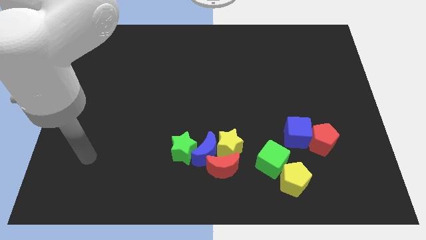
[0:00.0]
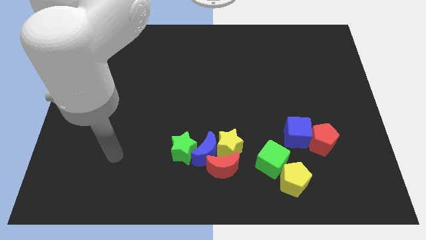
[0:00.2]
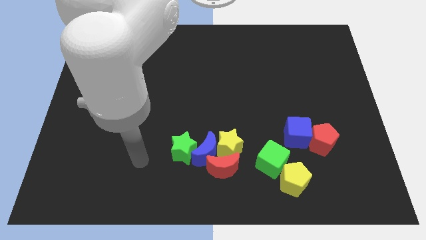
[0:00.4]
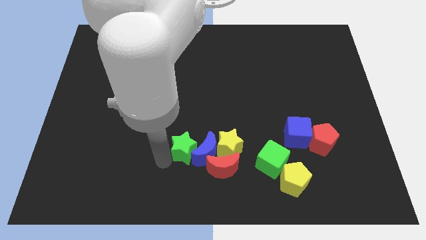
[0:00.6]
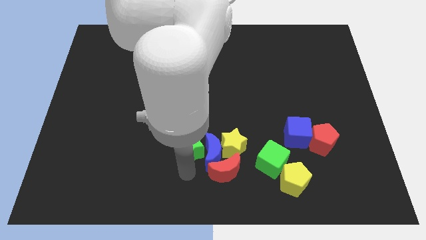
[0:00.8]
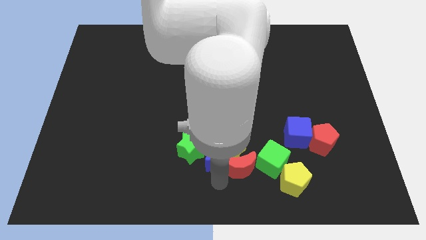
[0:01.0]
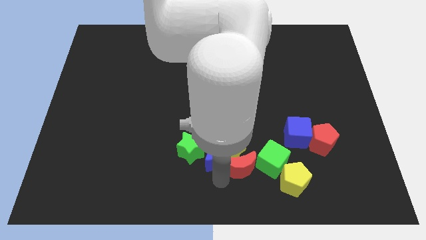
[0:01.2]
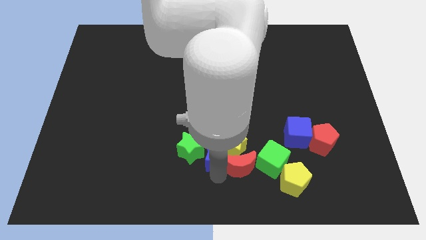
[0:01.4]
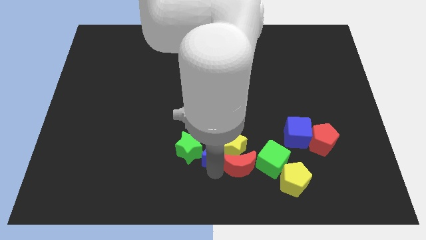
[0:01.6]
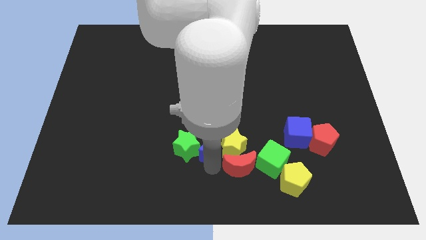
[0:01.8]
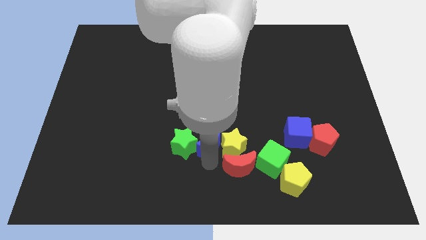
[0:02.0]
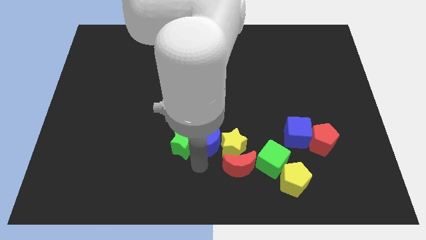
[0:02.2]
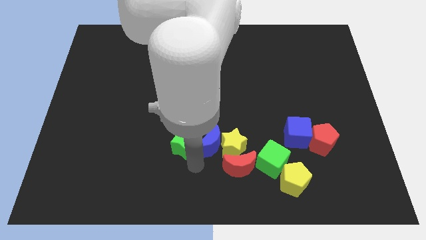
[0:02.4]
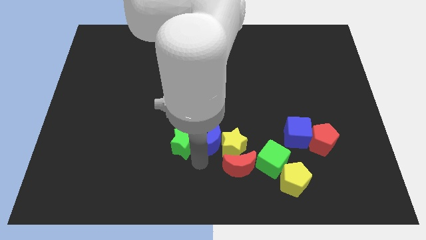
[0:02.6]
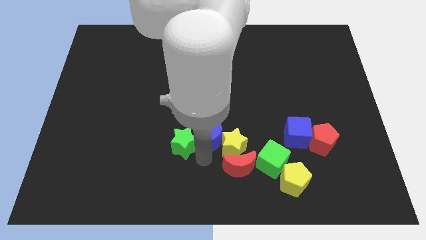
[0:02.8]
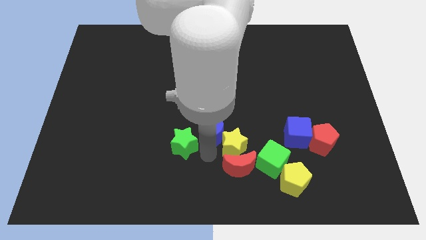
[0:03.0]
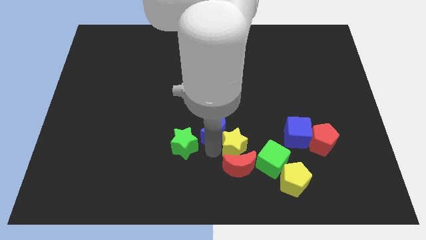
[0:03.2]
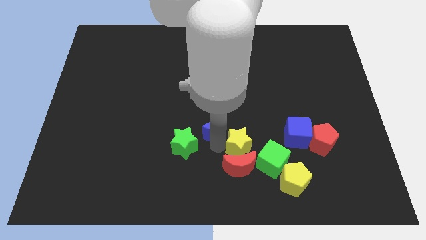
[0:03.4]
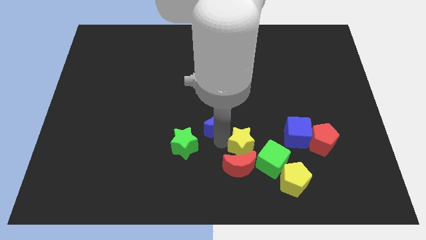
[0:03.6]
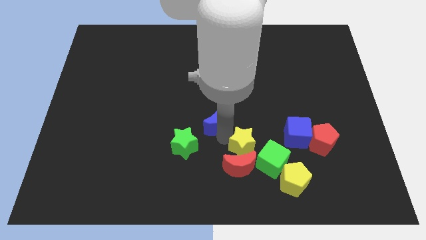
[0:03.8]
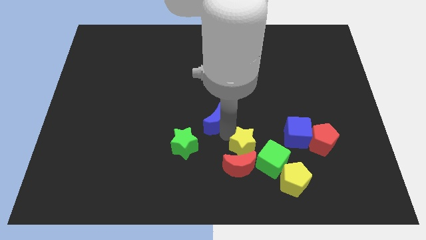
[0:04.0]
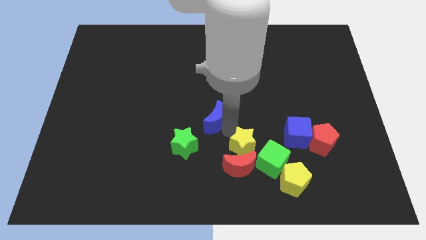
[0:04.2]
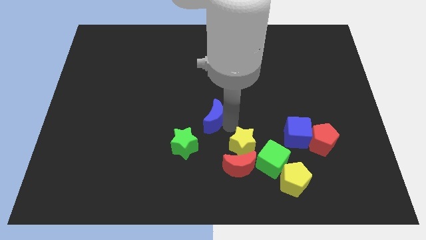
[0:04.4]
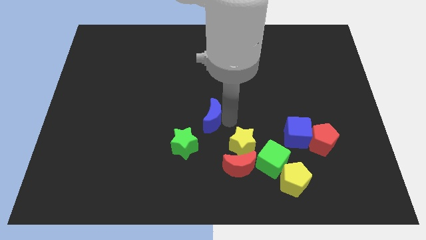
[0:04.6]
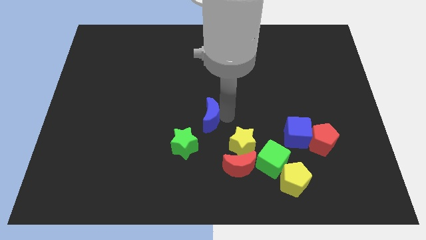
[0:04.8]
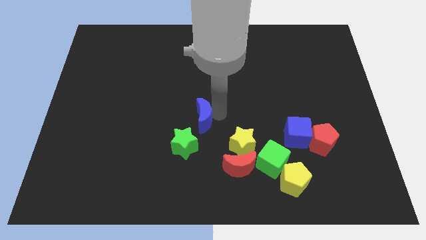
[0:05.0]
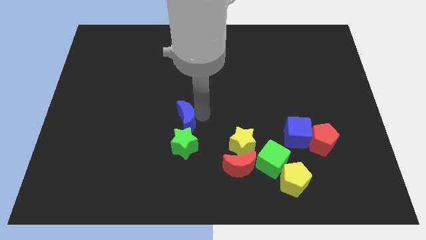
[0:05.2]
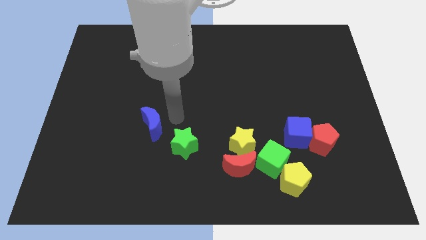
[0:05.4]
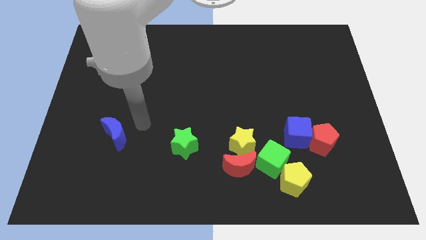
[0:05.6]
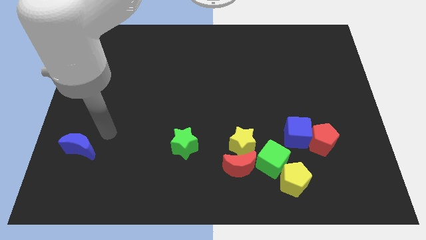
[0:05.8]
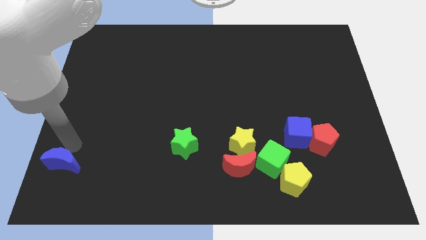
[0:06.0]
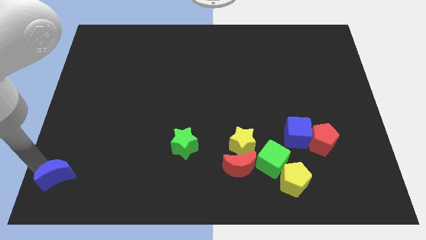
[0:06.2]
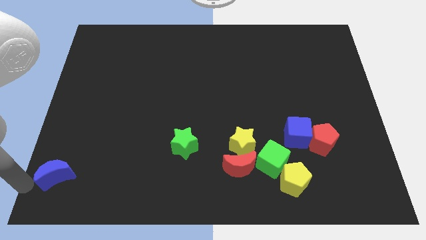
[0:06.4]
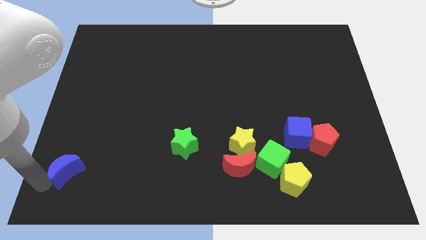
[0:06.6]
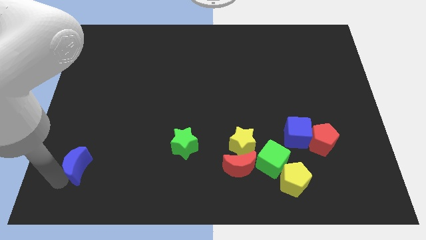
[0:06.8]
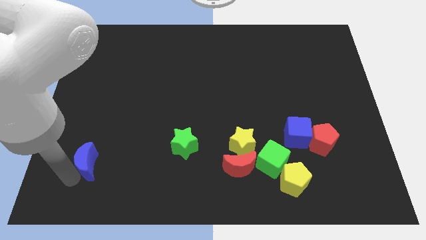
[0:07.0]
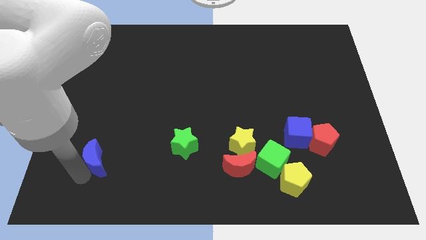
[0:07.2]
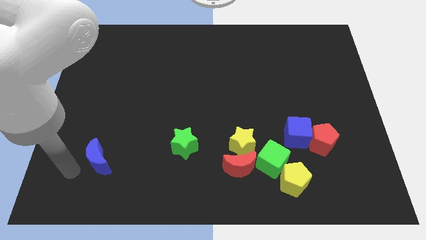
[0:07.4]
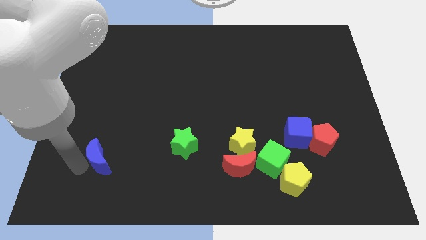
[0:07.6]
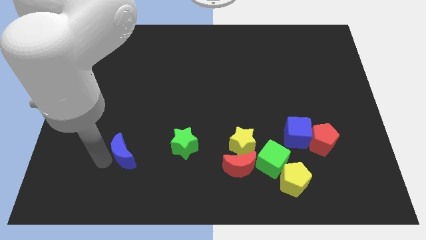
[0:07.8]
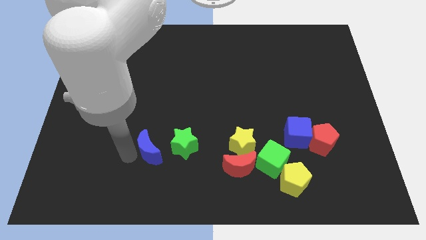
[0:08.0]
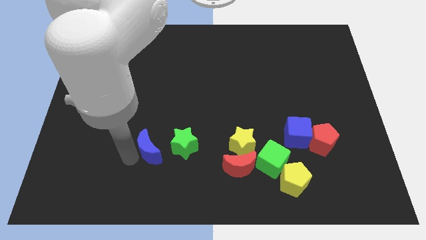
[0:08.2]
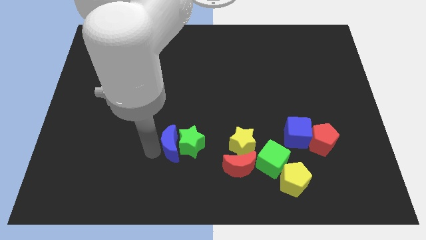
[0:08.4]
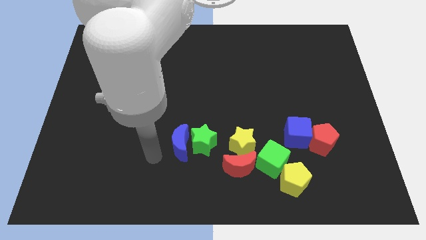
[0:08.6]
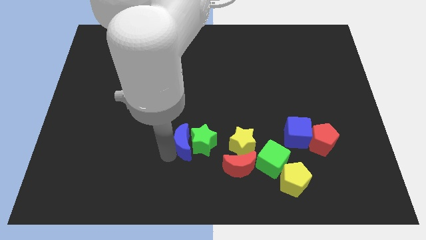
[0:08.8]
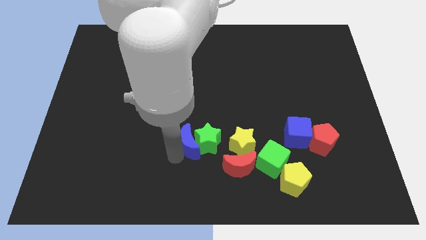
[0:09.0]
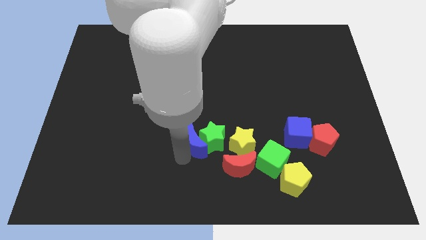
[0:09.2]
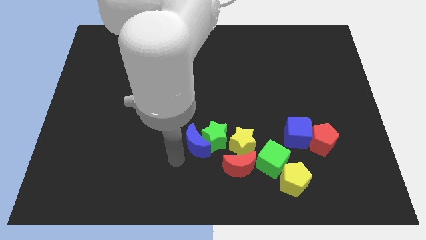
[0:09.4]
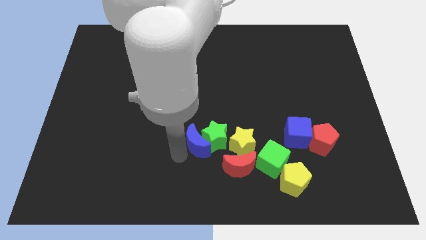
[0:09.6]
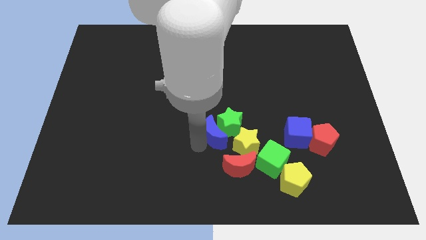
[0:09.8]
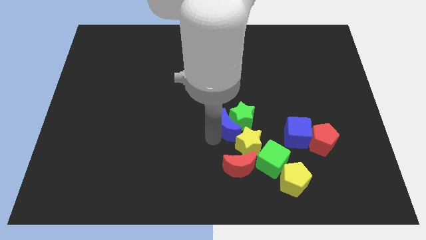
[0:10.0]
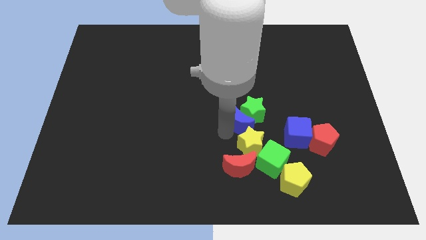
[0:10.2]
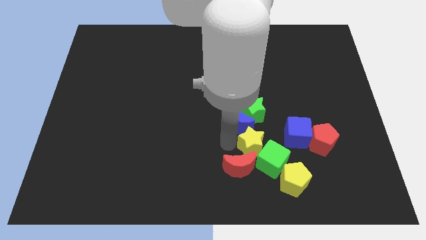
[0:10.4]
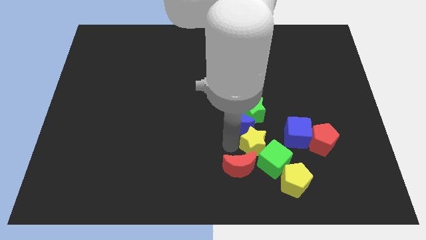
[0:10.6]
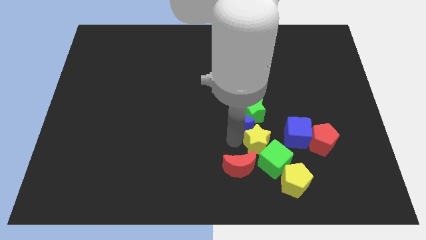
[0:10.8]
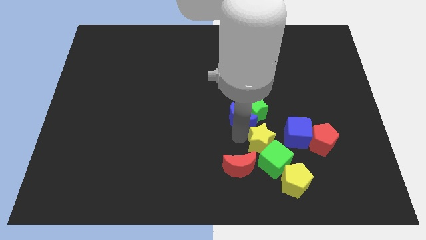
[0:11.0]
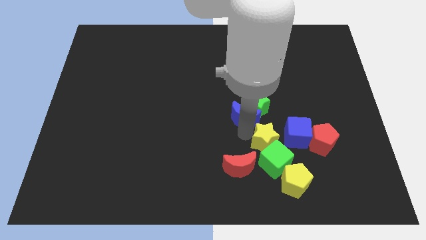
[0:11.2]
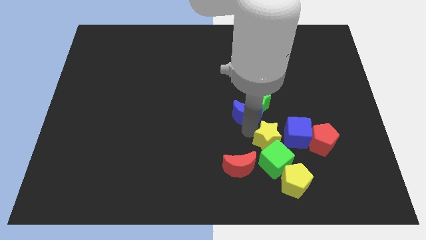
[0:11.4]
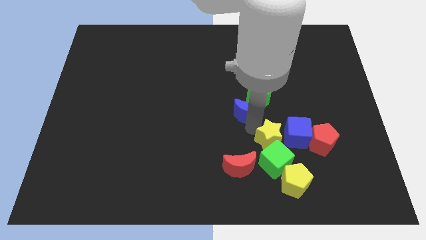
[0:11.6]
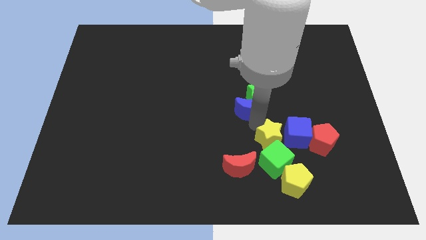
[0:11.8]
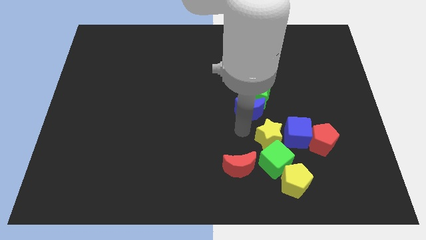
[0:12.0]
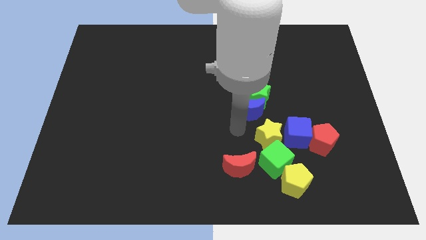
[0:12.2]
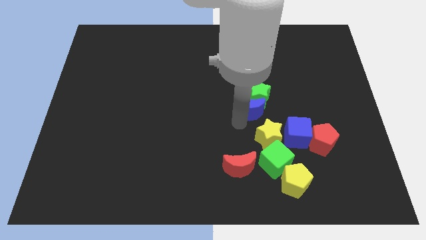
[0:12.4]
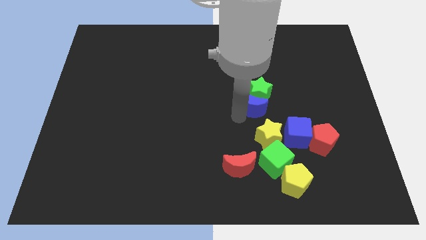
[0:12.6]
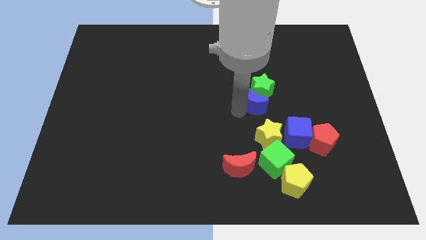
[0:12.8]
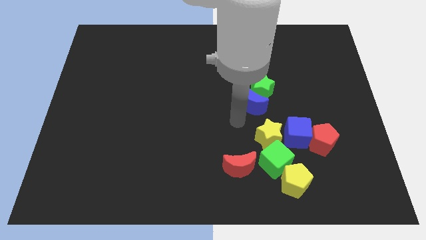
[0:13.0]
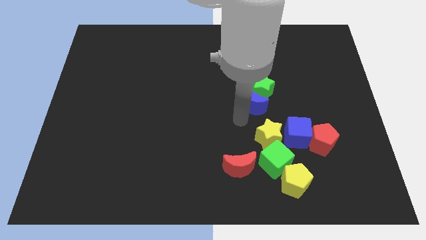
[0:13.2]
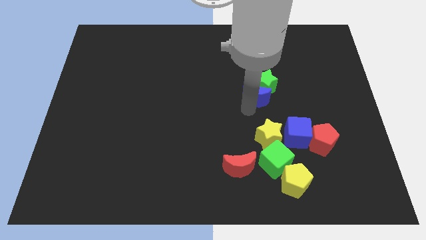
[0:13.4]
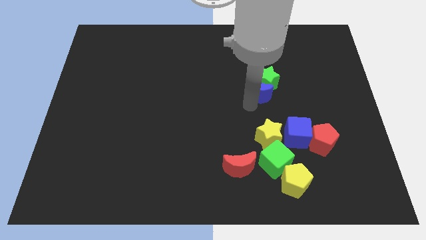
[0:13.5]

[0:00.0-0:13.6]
push the blue moon up and to the right

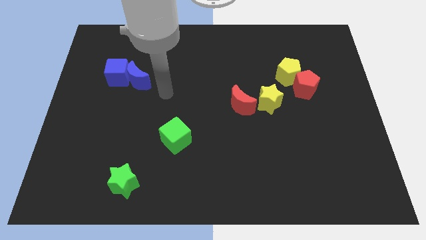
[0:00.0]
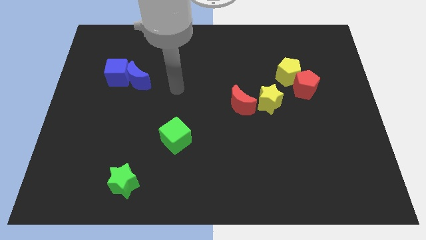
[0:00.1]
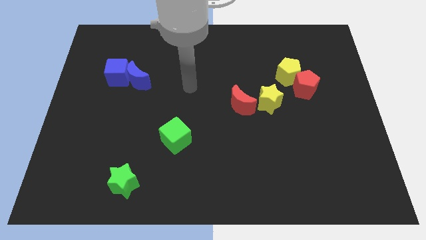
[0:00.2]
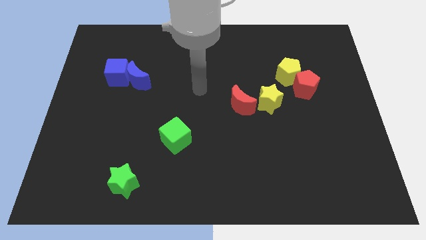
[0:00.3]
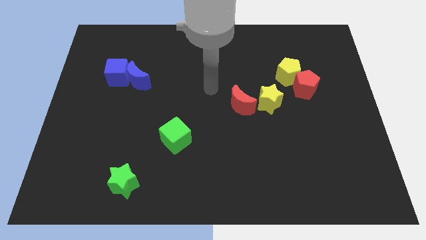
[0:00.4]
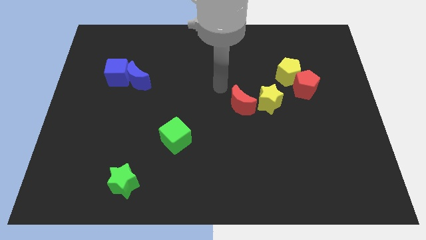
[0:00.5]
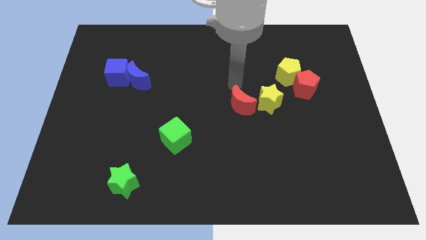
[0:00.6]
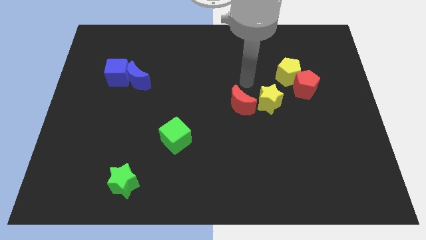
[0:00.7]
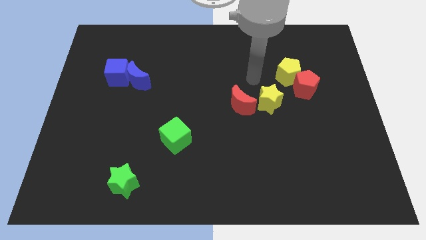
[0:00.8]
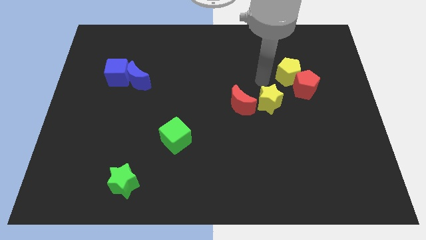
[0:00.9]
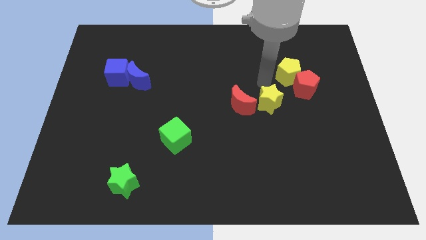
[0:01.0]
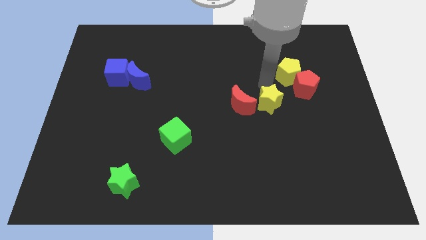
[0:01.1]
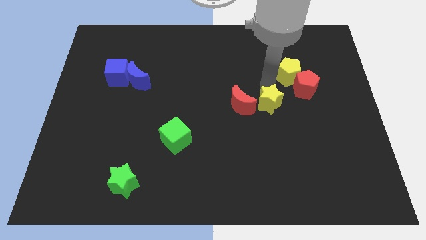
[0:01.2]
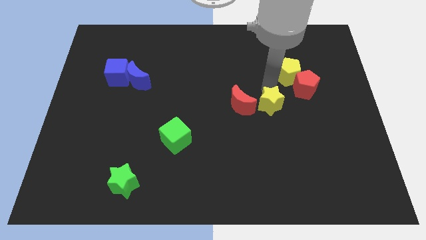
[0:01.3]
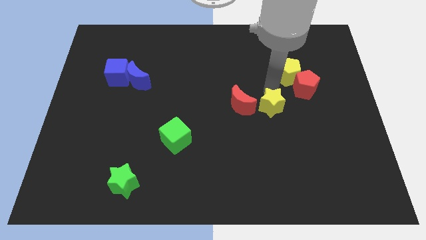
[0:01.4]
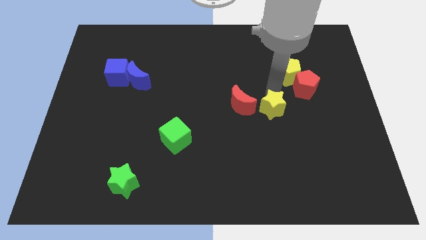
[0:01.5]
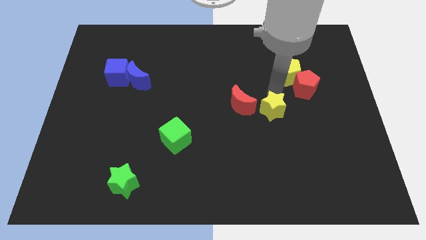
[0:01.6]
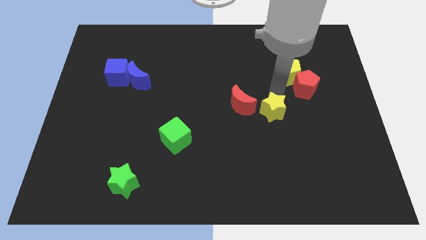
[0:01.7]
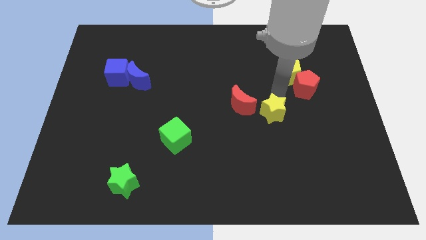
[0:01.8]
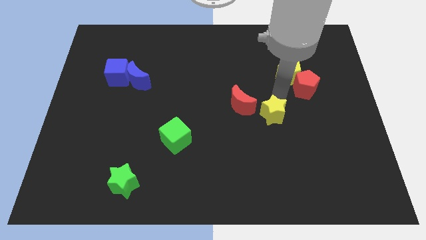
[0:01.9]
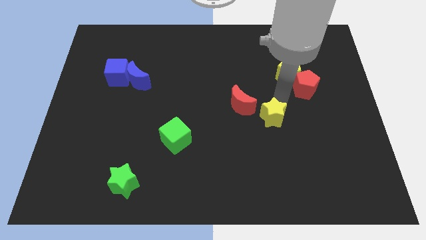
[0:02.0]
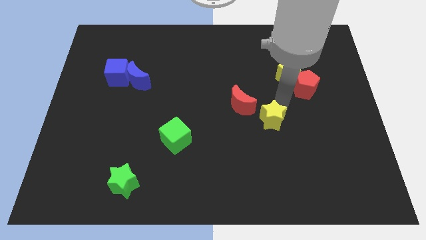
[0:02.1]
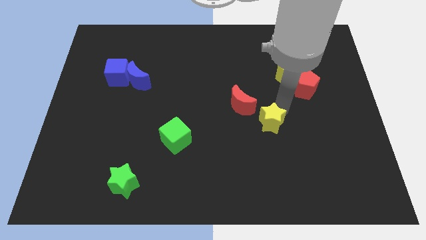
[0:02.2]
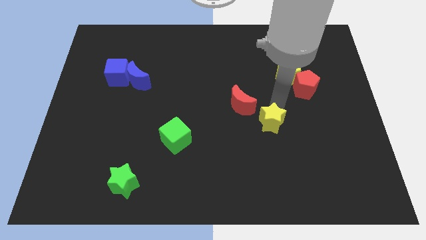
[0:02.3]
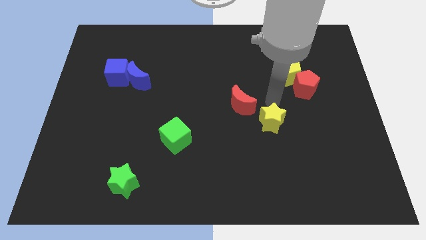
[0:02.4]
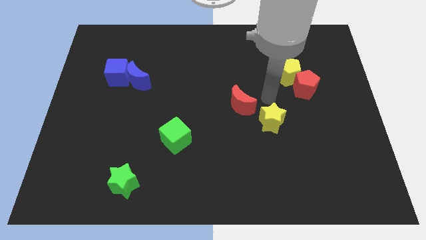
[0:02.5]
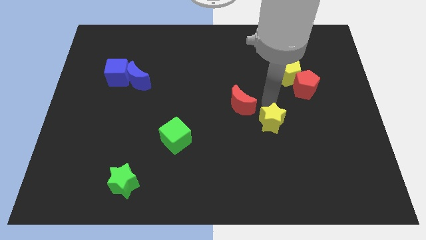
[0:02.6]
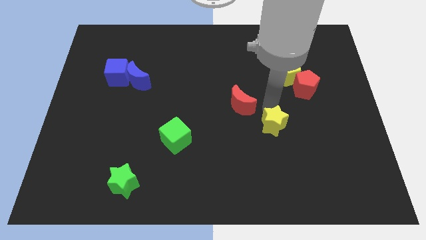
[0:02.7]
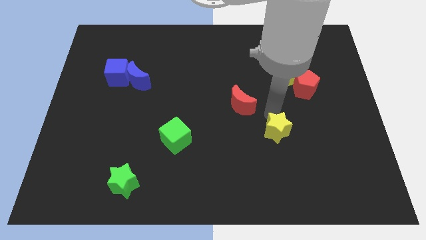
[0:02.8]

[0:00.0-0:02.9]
slightly move the yellow star down
